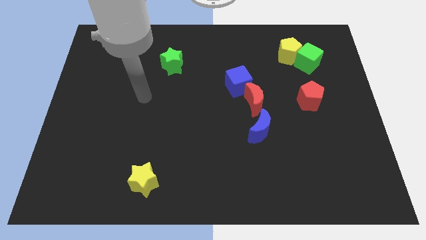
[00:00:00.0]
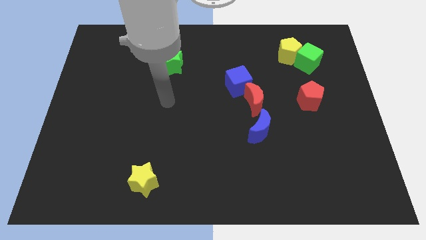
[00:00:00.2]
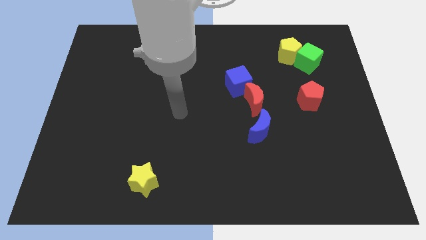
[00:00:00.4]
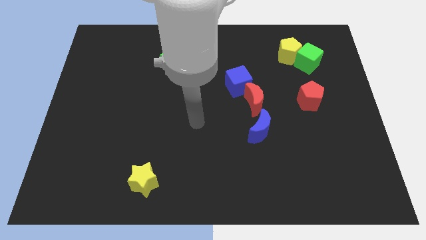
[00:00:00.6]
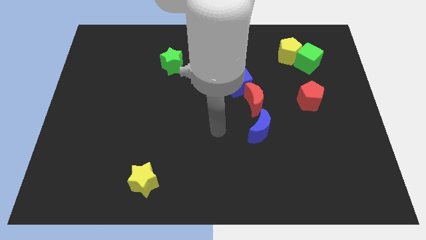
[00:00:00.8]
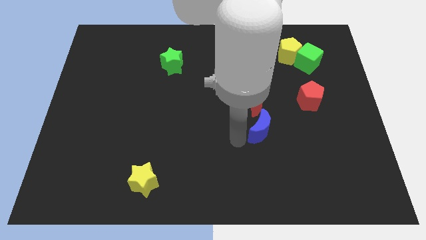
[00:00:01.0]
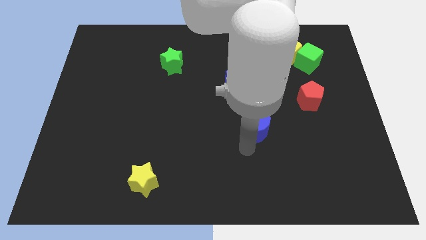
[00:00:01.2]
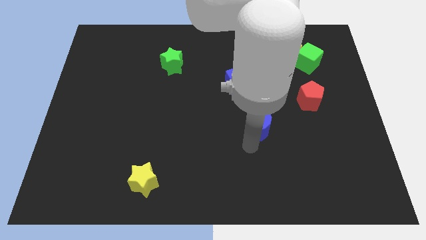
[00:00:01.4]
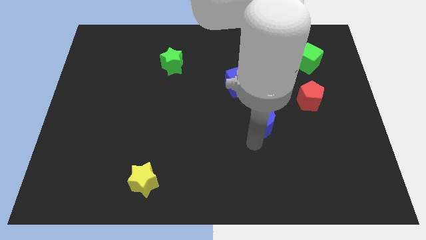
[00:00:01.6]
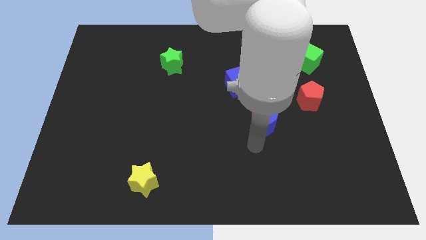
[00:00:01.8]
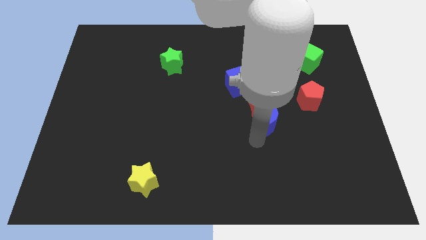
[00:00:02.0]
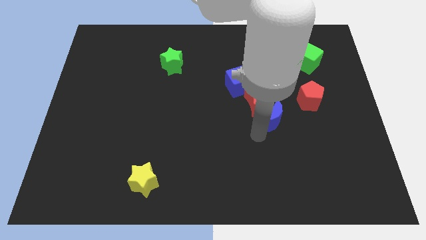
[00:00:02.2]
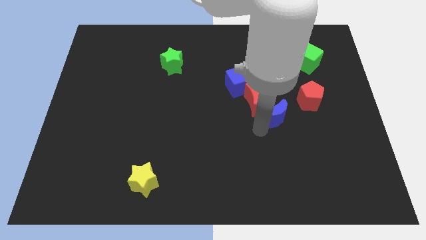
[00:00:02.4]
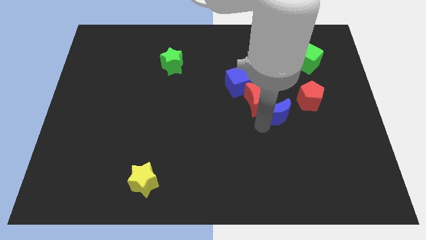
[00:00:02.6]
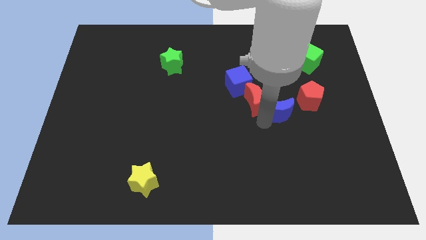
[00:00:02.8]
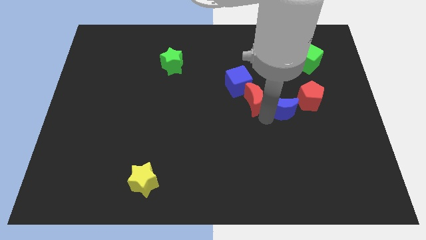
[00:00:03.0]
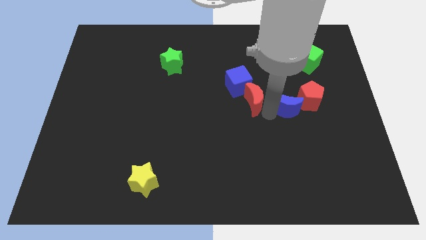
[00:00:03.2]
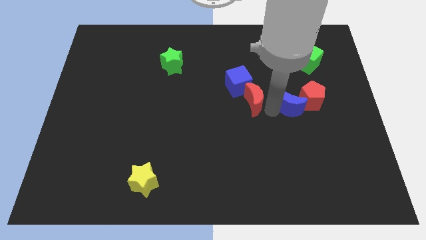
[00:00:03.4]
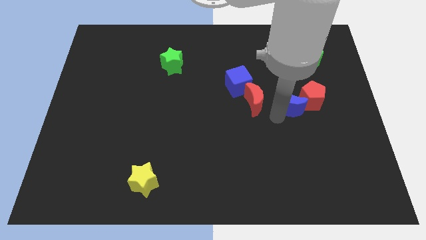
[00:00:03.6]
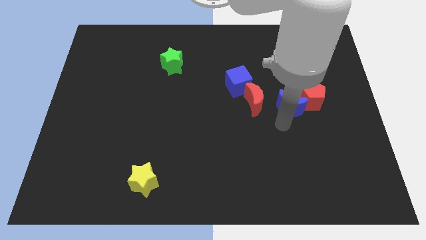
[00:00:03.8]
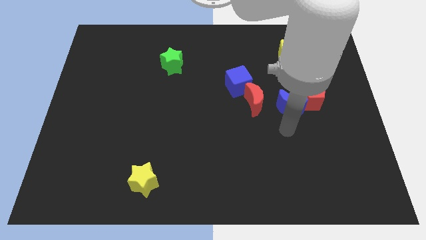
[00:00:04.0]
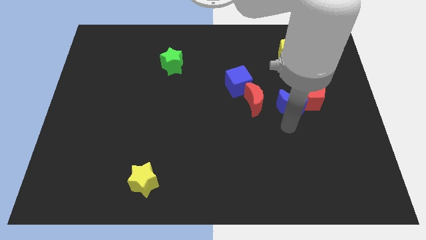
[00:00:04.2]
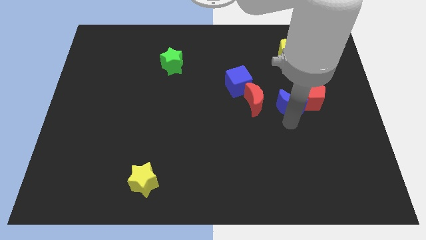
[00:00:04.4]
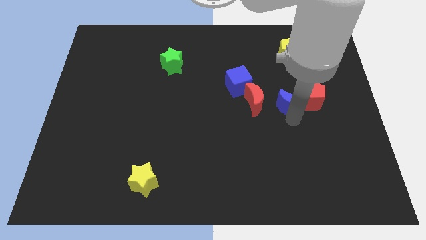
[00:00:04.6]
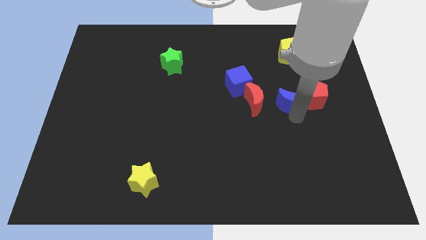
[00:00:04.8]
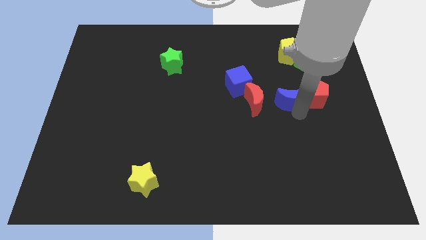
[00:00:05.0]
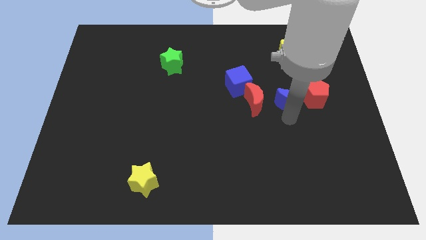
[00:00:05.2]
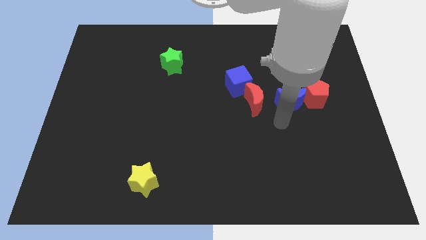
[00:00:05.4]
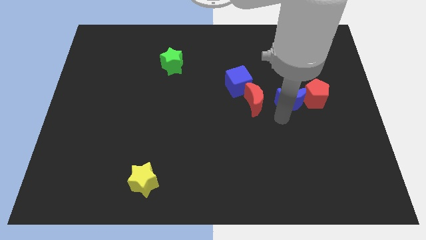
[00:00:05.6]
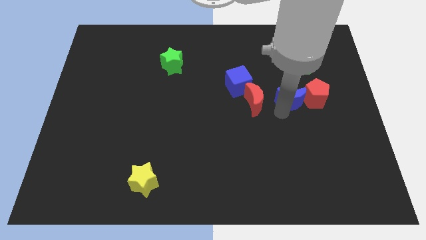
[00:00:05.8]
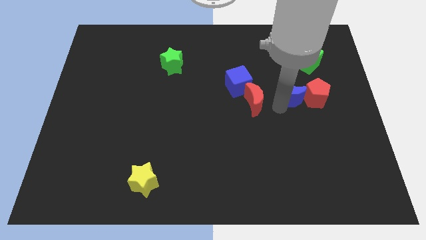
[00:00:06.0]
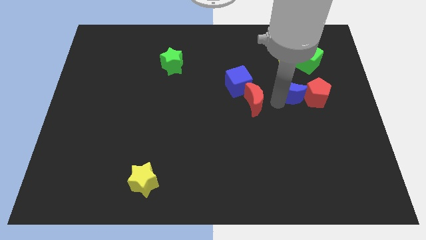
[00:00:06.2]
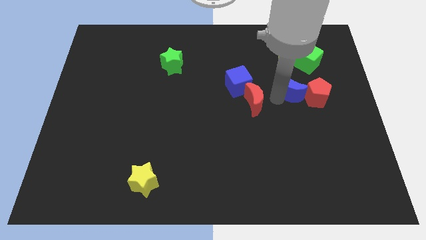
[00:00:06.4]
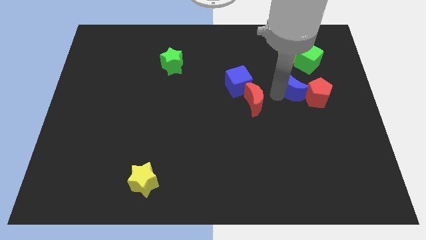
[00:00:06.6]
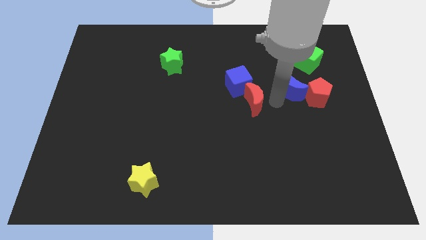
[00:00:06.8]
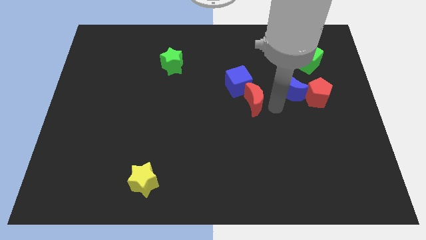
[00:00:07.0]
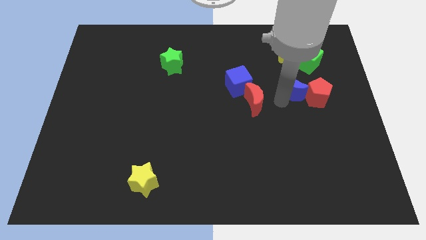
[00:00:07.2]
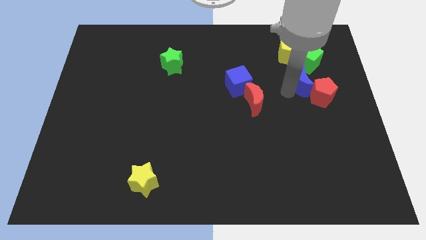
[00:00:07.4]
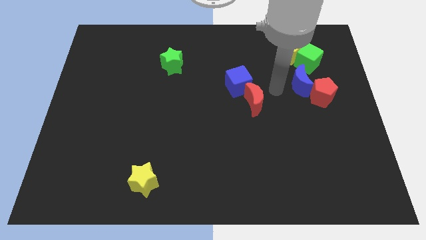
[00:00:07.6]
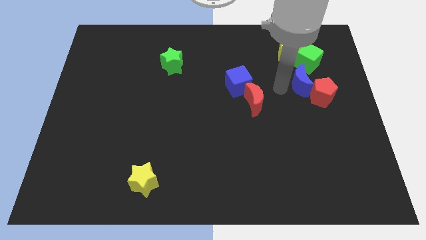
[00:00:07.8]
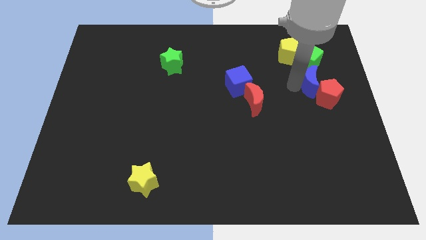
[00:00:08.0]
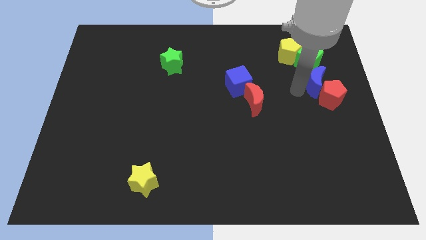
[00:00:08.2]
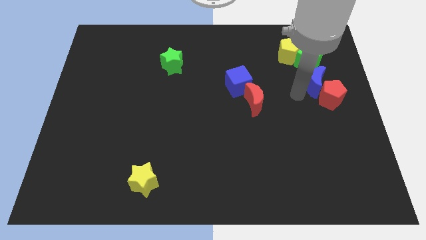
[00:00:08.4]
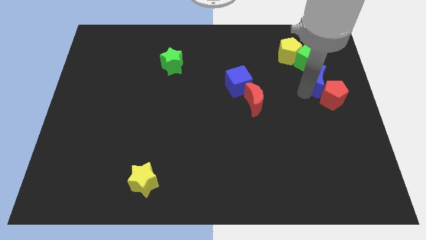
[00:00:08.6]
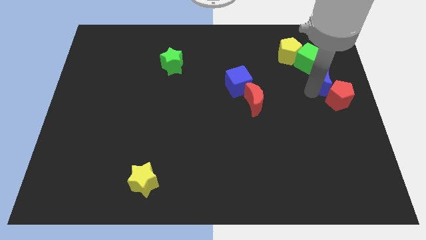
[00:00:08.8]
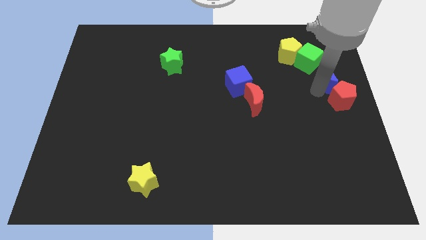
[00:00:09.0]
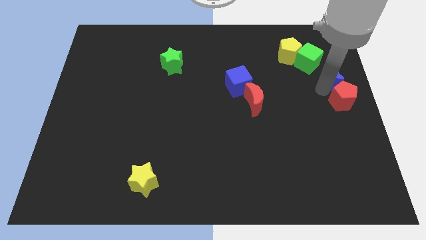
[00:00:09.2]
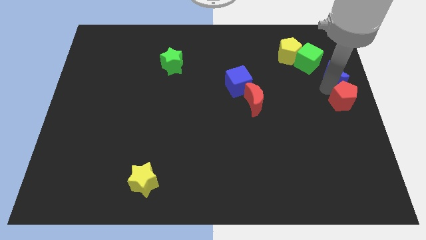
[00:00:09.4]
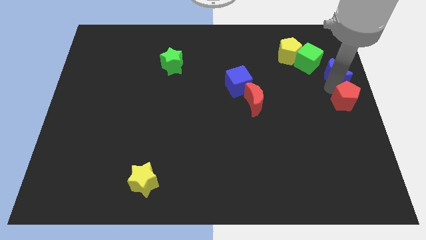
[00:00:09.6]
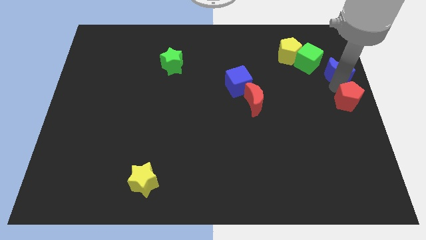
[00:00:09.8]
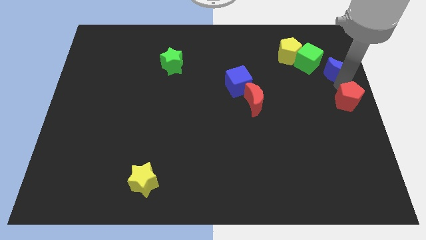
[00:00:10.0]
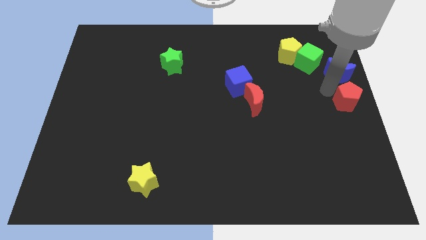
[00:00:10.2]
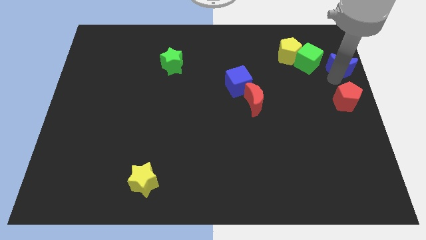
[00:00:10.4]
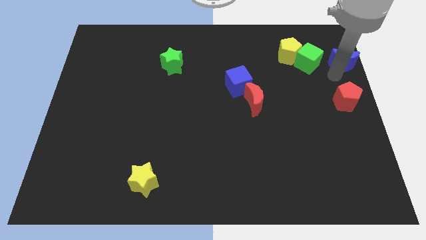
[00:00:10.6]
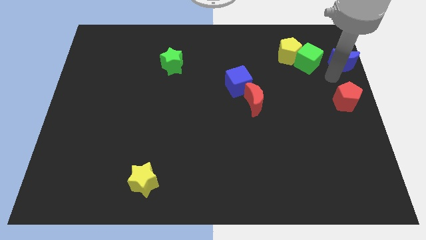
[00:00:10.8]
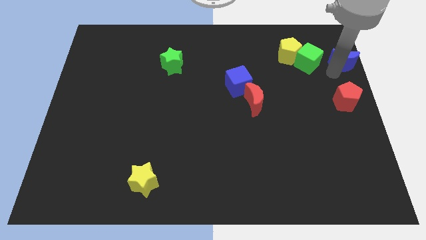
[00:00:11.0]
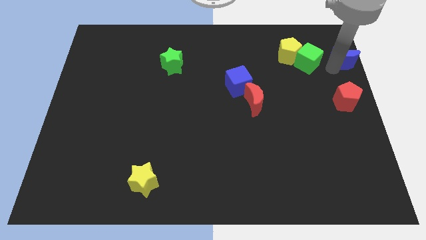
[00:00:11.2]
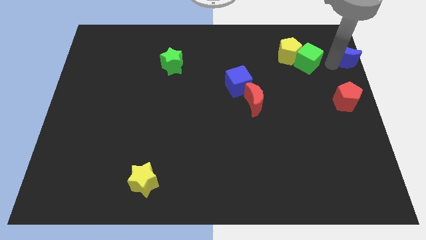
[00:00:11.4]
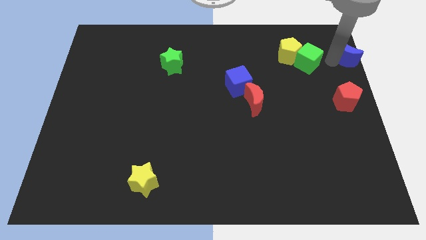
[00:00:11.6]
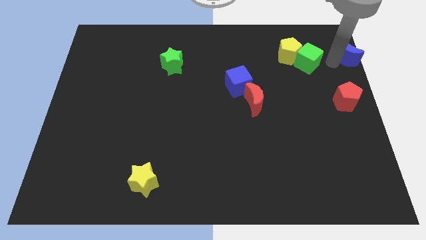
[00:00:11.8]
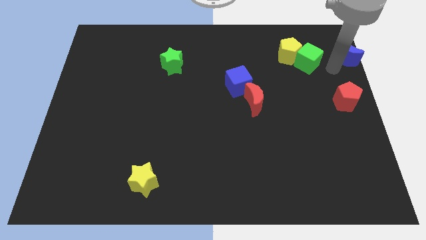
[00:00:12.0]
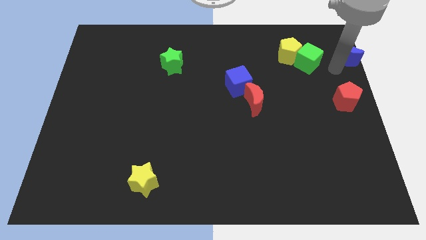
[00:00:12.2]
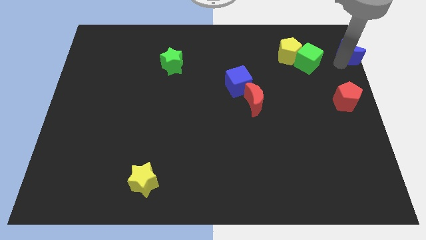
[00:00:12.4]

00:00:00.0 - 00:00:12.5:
put the blue moon to the top right corner
